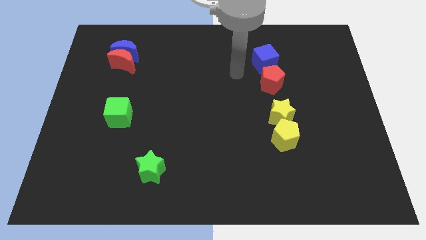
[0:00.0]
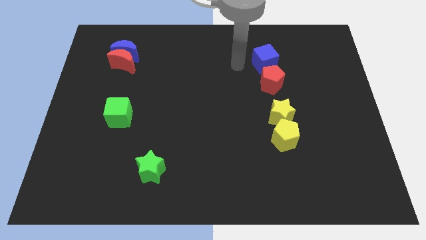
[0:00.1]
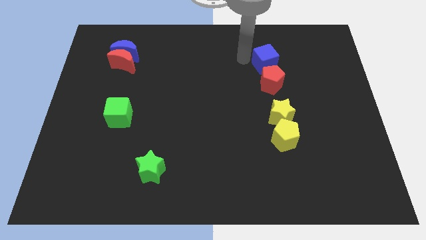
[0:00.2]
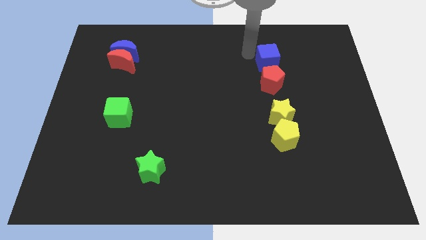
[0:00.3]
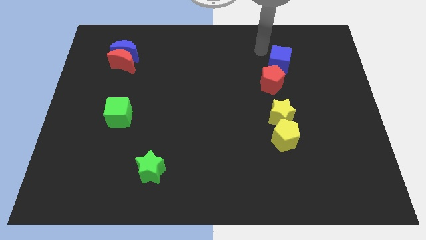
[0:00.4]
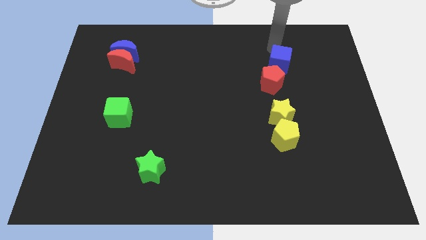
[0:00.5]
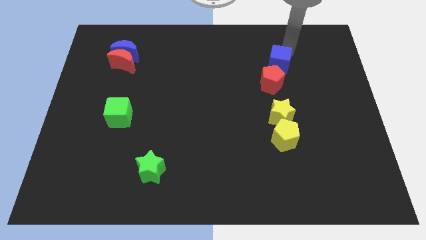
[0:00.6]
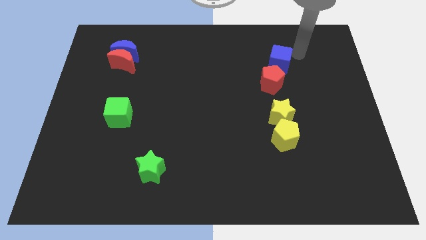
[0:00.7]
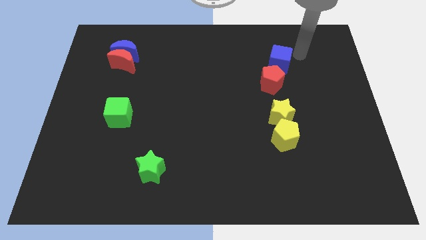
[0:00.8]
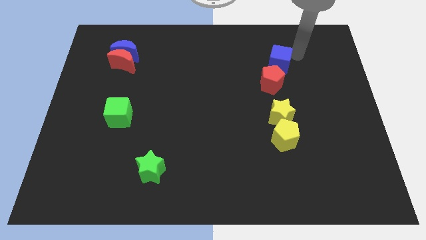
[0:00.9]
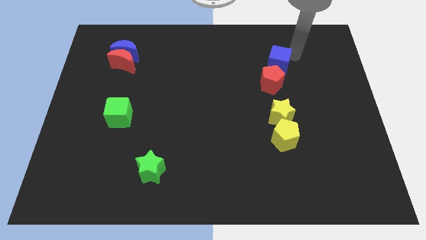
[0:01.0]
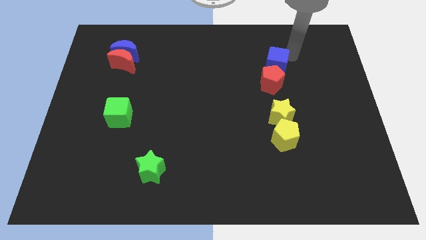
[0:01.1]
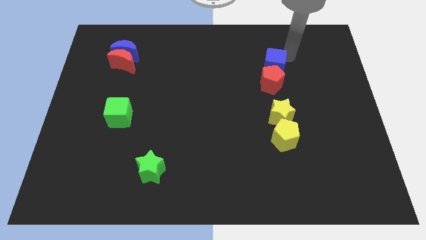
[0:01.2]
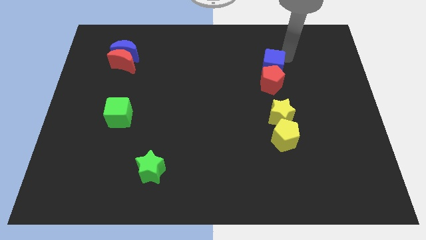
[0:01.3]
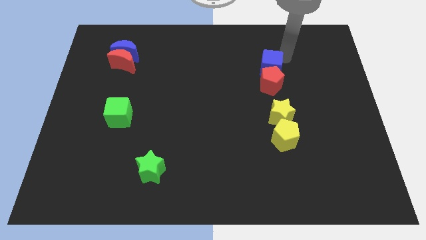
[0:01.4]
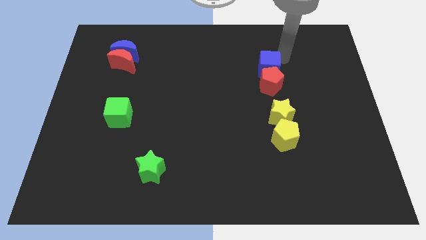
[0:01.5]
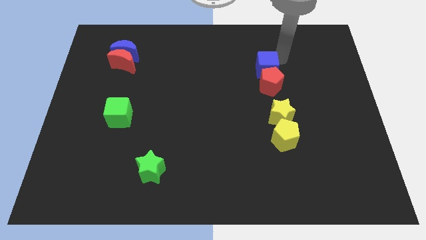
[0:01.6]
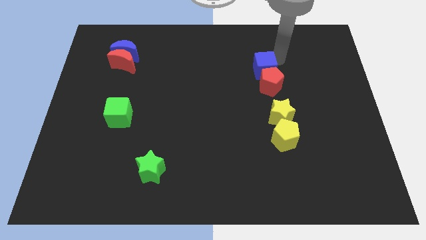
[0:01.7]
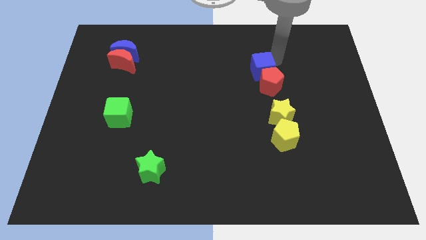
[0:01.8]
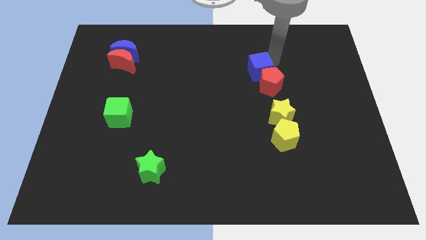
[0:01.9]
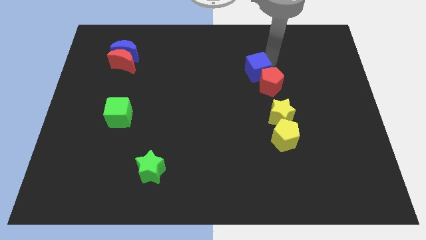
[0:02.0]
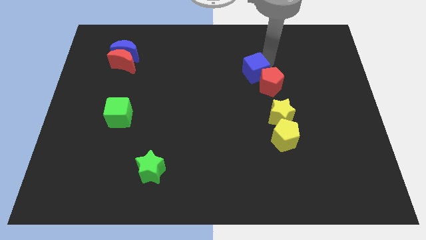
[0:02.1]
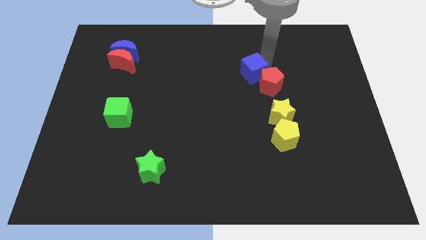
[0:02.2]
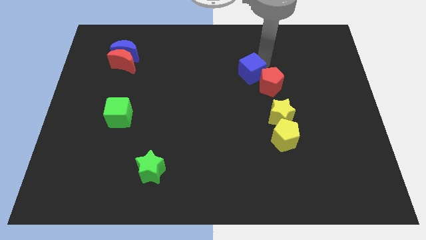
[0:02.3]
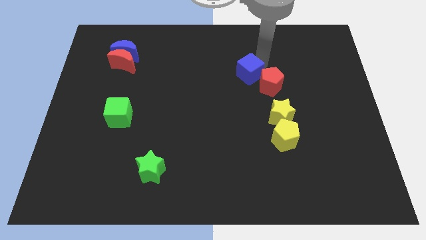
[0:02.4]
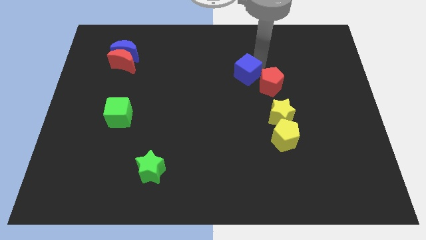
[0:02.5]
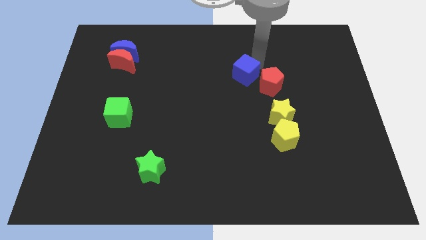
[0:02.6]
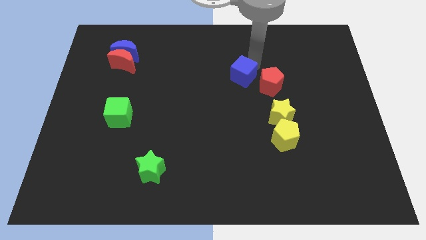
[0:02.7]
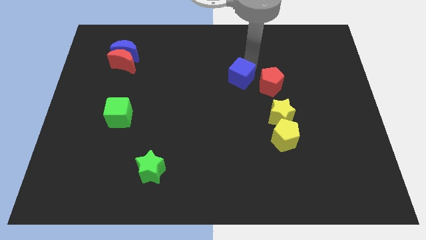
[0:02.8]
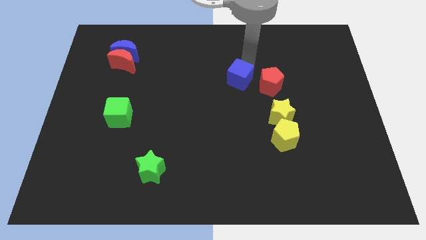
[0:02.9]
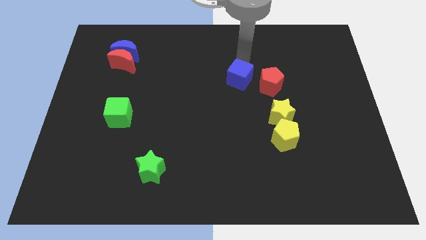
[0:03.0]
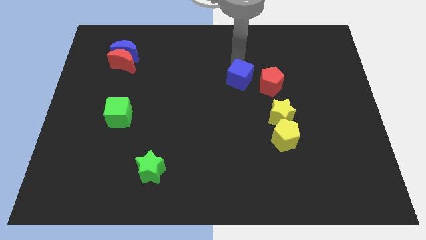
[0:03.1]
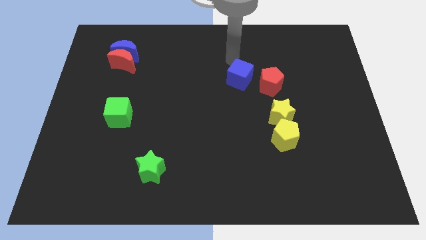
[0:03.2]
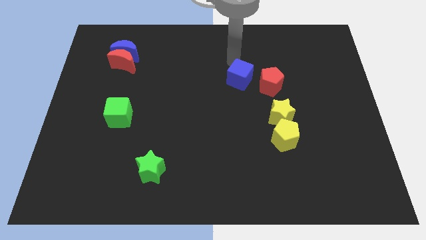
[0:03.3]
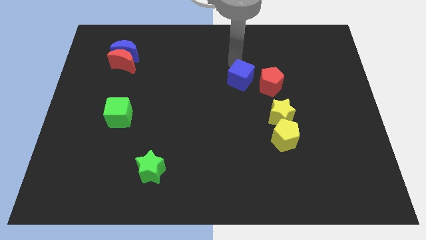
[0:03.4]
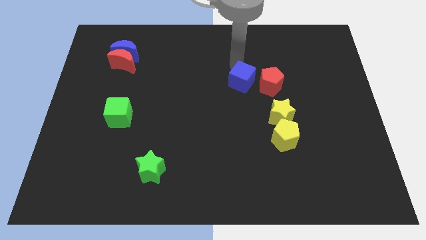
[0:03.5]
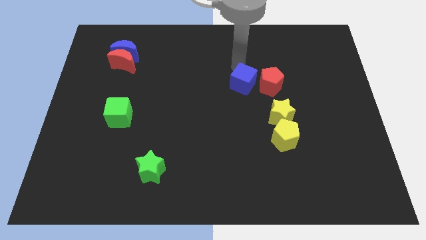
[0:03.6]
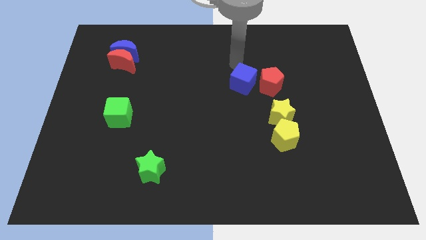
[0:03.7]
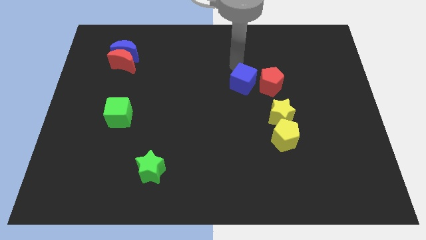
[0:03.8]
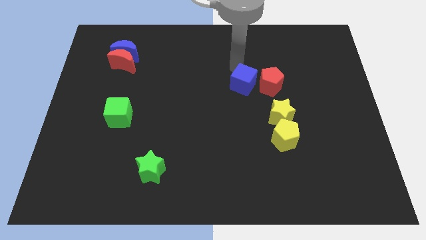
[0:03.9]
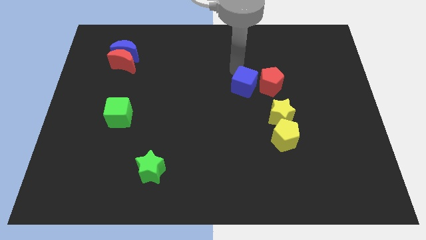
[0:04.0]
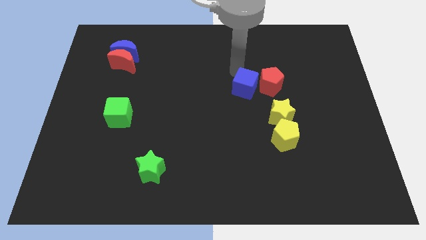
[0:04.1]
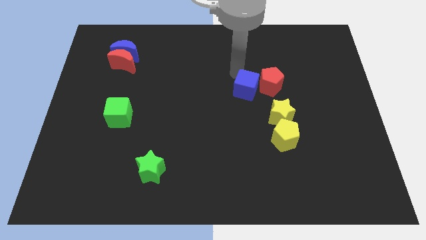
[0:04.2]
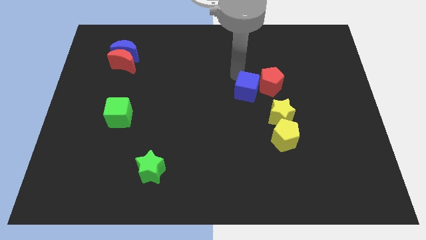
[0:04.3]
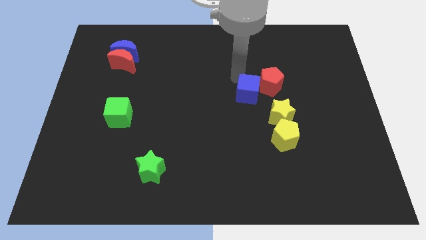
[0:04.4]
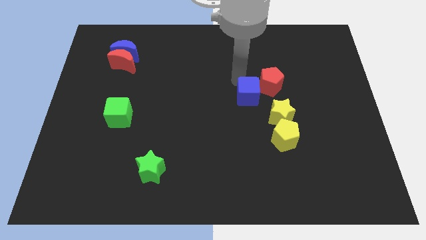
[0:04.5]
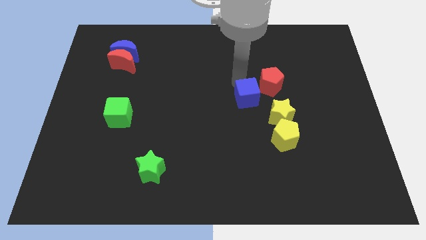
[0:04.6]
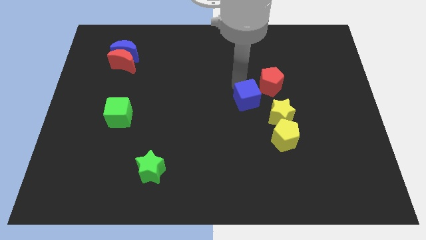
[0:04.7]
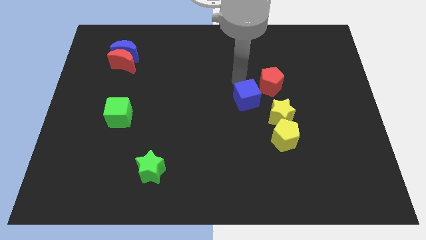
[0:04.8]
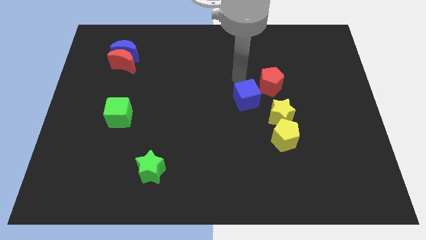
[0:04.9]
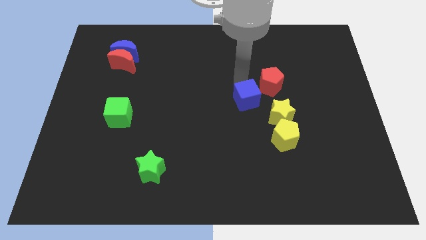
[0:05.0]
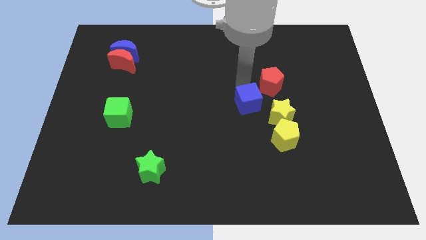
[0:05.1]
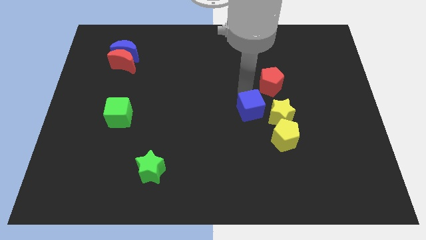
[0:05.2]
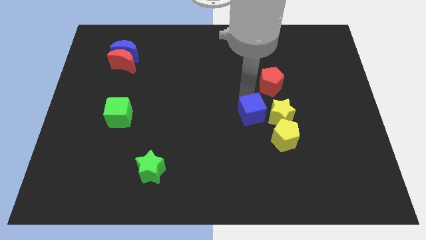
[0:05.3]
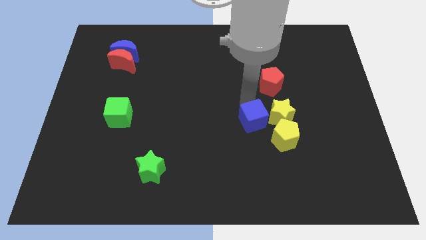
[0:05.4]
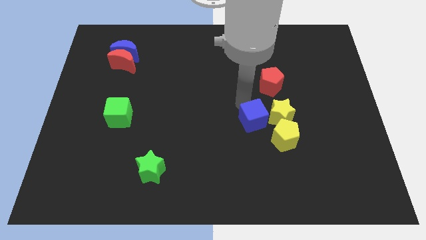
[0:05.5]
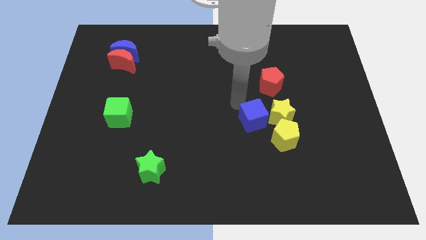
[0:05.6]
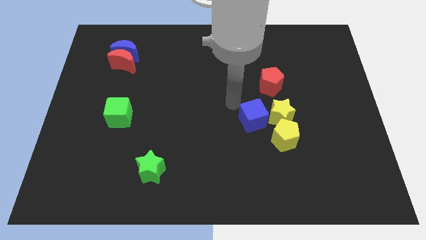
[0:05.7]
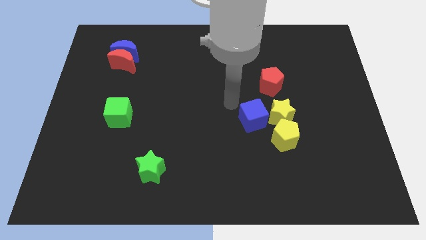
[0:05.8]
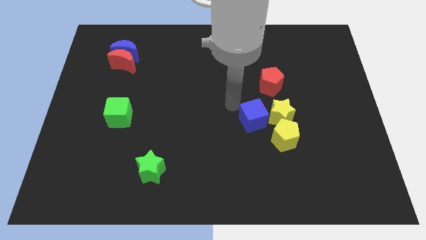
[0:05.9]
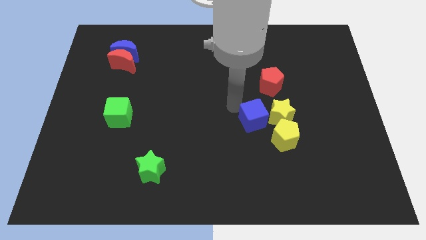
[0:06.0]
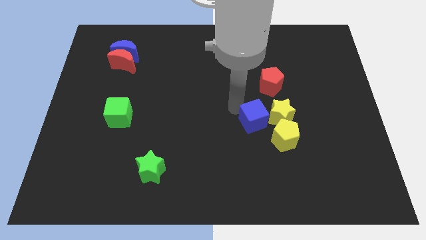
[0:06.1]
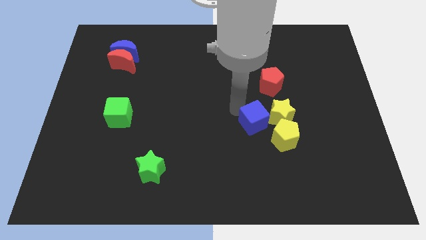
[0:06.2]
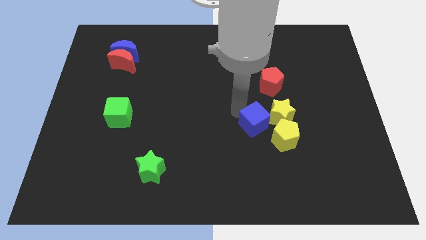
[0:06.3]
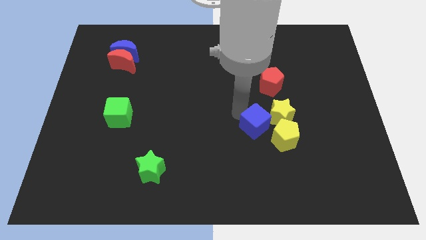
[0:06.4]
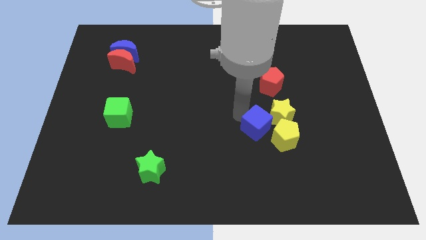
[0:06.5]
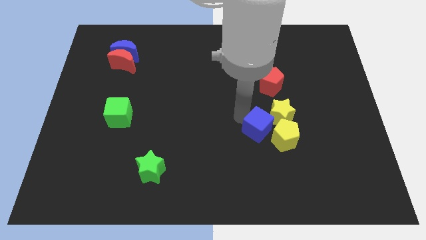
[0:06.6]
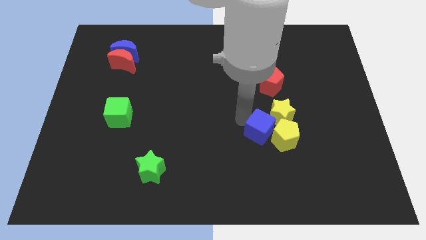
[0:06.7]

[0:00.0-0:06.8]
put the blue cube to the yellow pentagon
